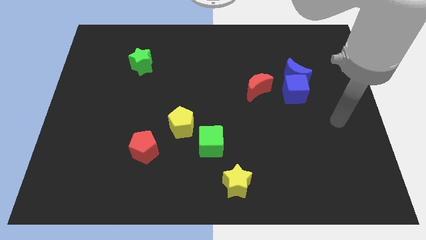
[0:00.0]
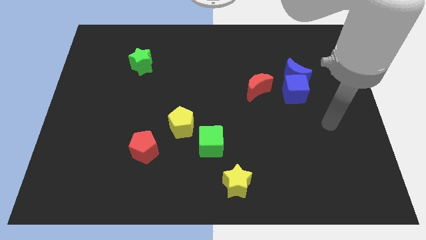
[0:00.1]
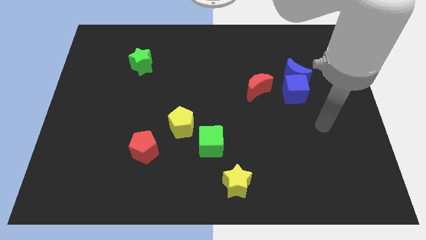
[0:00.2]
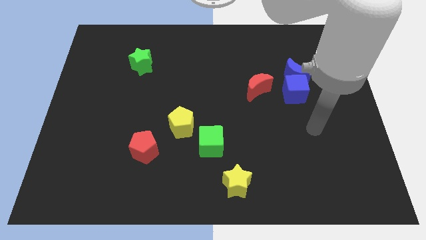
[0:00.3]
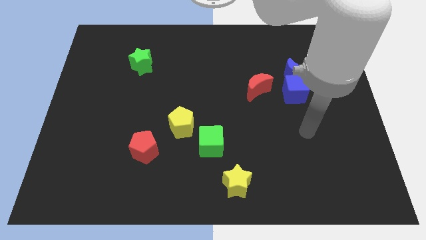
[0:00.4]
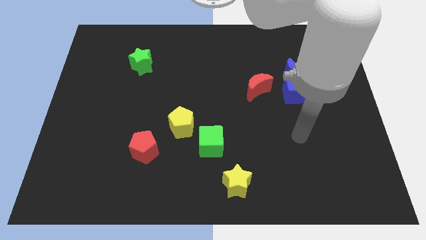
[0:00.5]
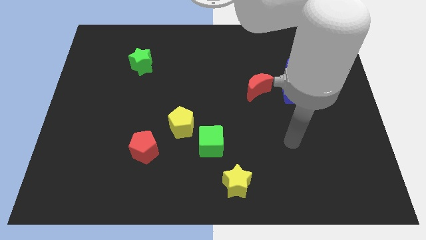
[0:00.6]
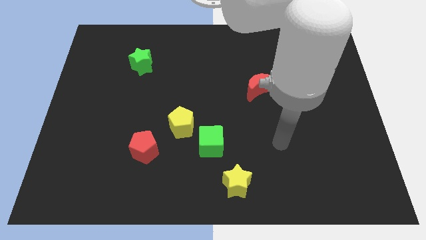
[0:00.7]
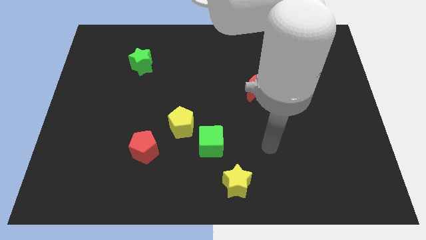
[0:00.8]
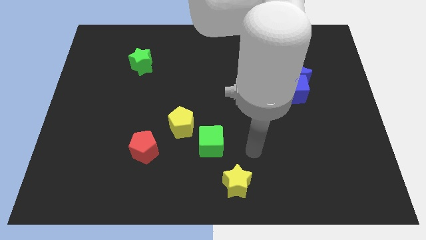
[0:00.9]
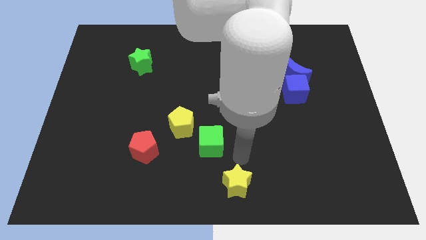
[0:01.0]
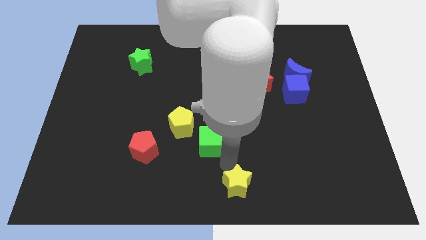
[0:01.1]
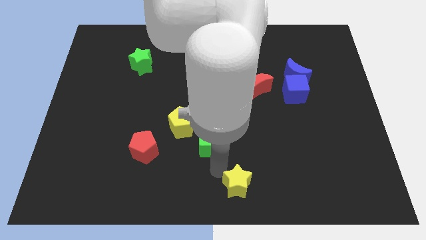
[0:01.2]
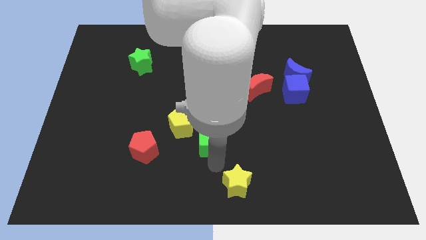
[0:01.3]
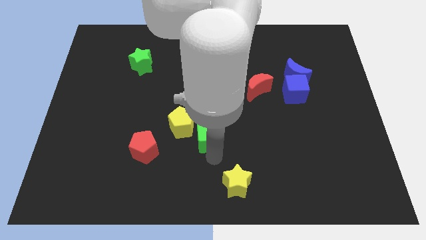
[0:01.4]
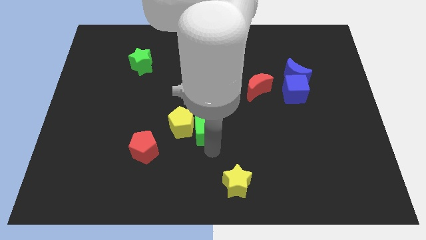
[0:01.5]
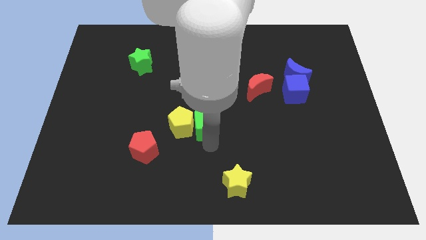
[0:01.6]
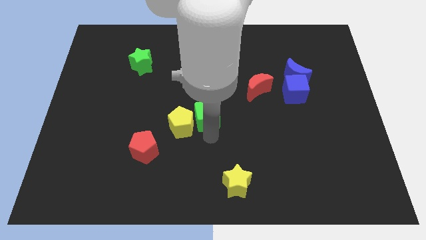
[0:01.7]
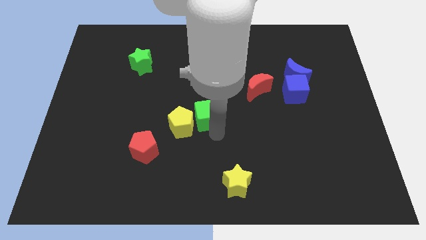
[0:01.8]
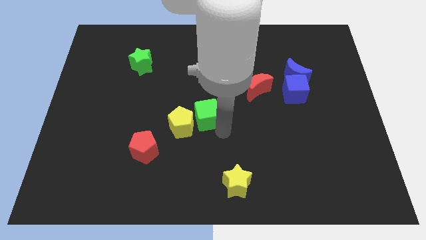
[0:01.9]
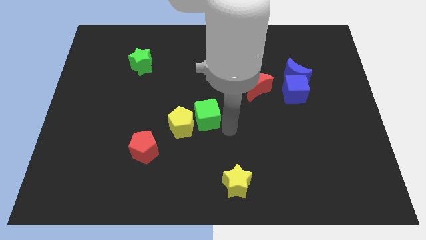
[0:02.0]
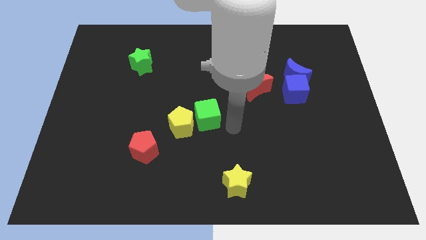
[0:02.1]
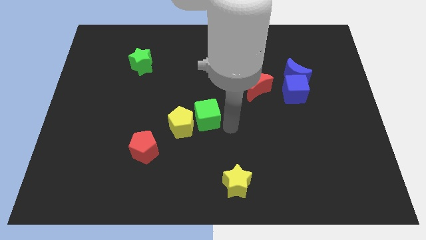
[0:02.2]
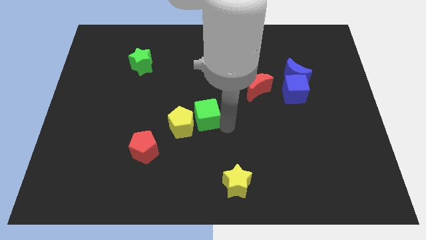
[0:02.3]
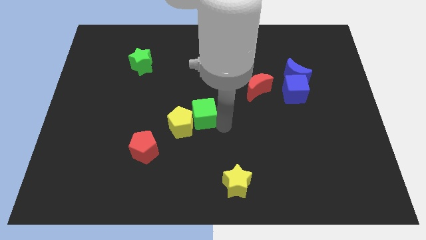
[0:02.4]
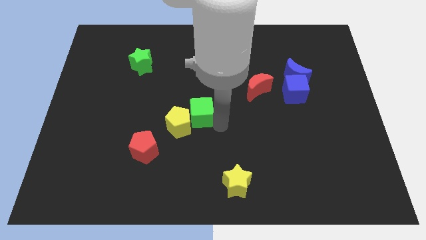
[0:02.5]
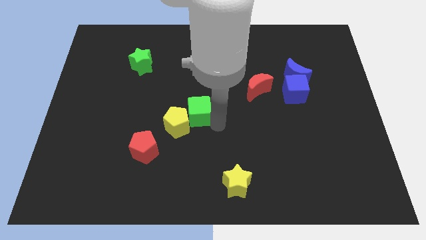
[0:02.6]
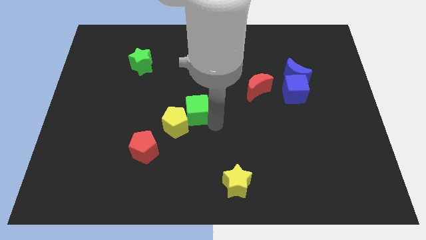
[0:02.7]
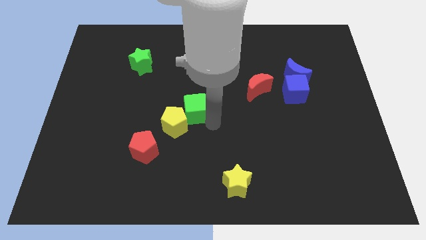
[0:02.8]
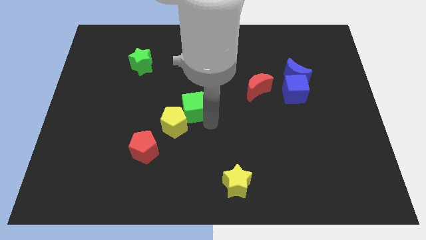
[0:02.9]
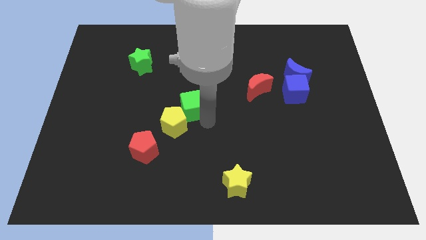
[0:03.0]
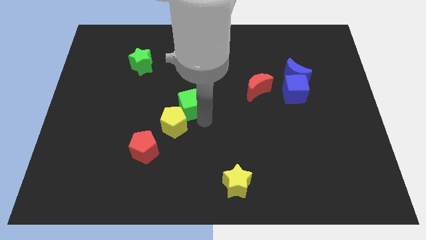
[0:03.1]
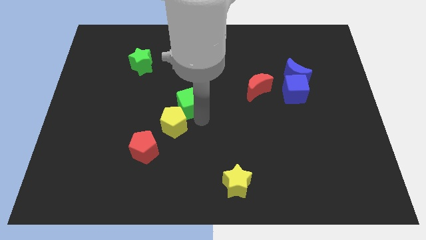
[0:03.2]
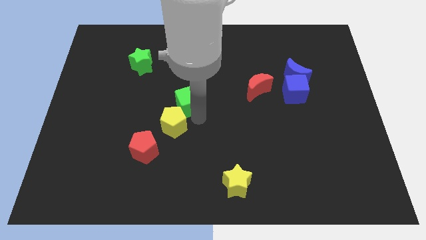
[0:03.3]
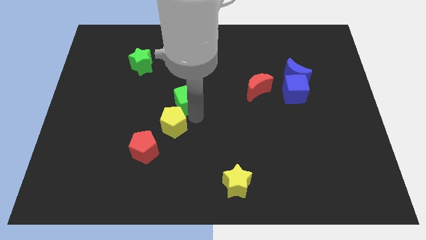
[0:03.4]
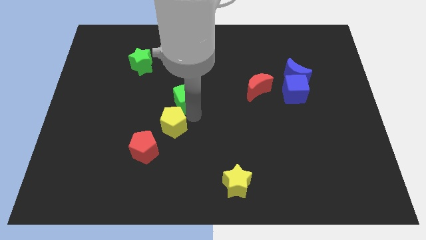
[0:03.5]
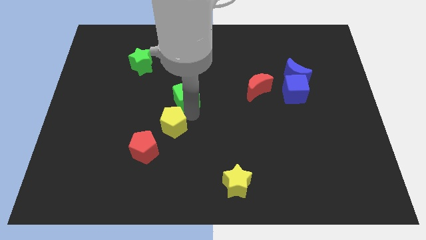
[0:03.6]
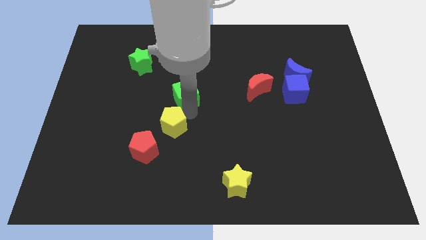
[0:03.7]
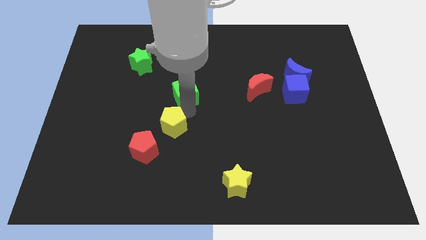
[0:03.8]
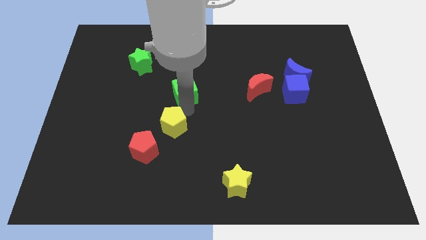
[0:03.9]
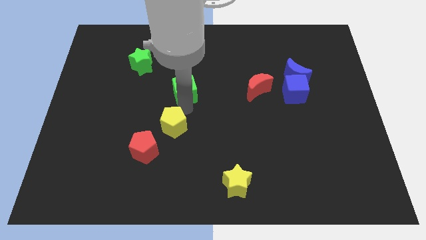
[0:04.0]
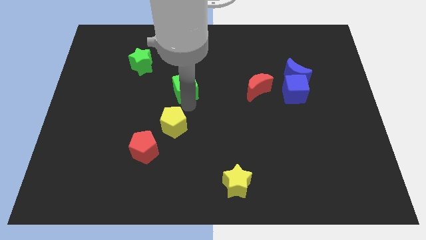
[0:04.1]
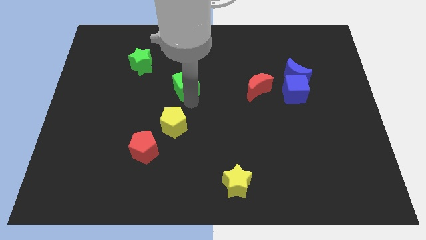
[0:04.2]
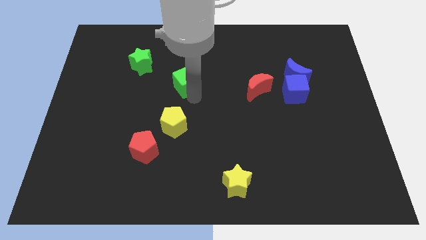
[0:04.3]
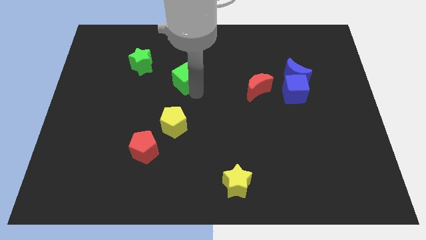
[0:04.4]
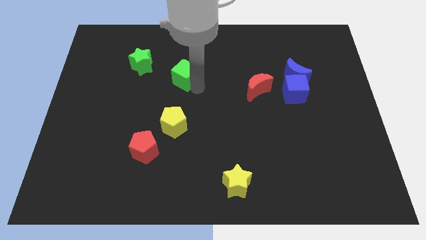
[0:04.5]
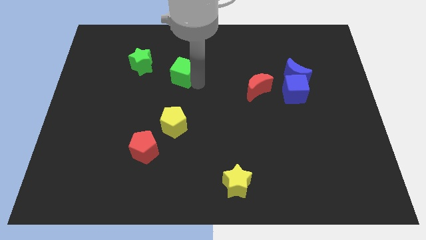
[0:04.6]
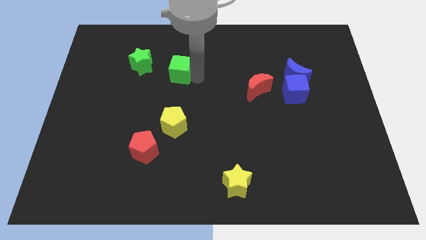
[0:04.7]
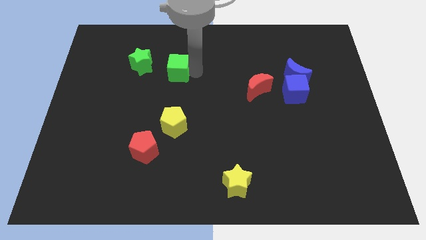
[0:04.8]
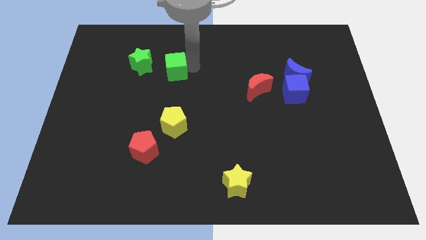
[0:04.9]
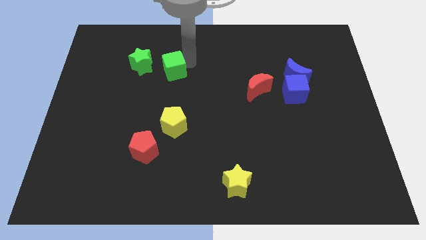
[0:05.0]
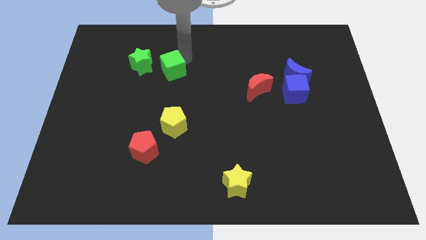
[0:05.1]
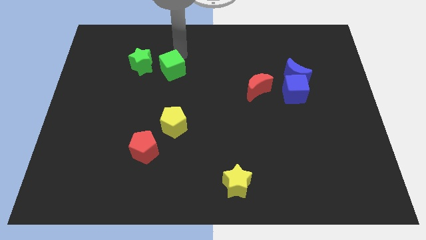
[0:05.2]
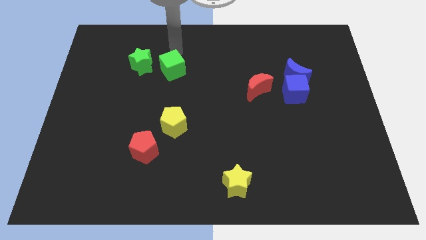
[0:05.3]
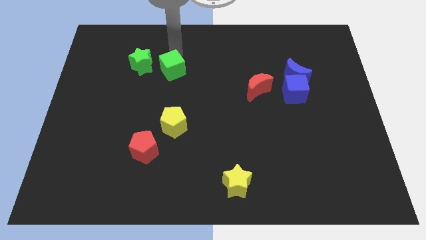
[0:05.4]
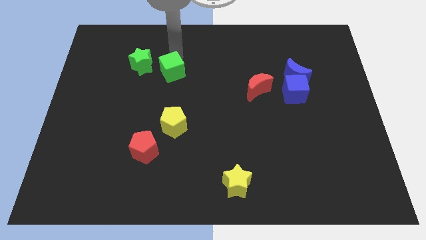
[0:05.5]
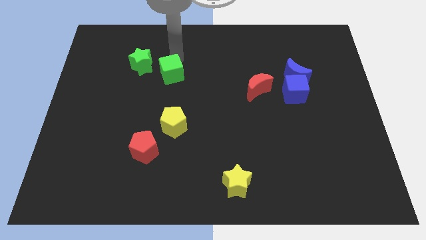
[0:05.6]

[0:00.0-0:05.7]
move the green cube up and left diagonally

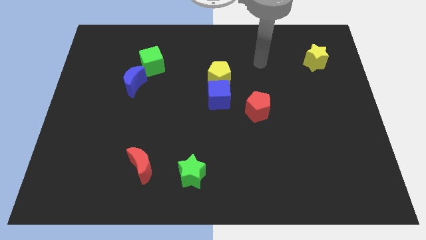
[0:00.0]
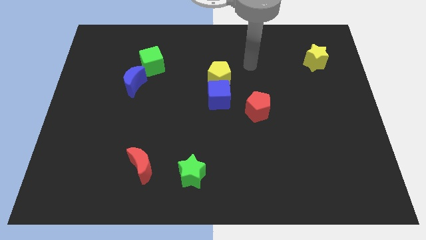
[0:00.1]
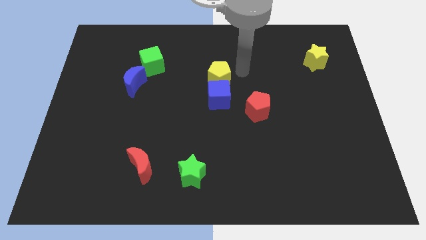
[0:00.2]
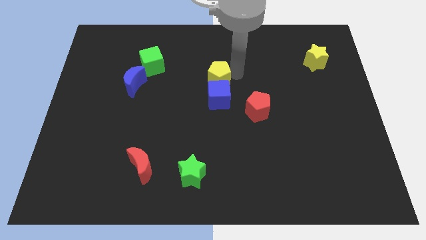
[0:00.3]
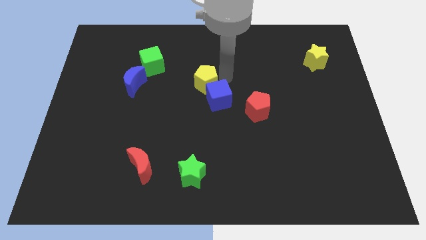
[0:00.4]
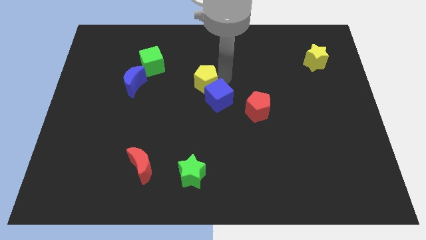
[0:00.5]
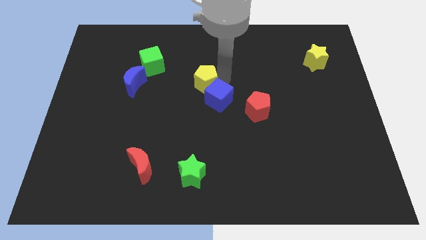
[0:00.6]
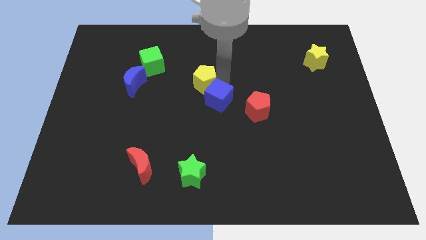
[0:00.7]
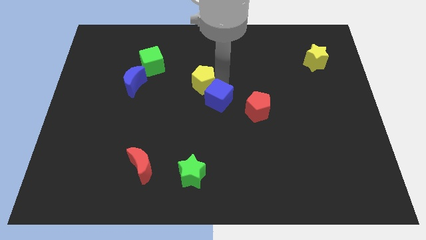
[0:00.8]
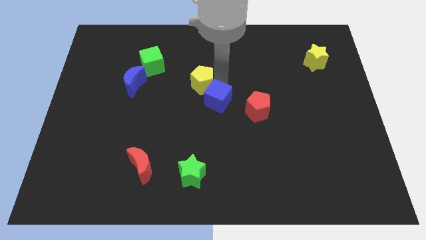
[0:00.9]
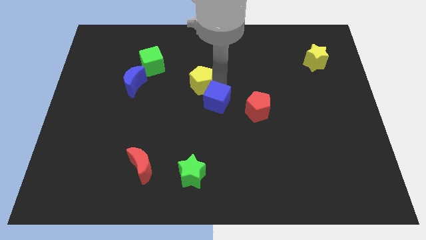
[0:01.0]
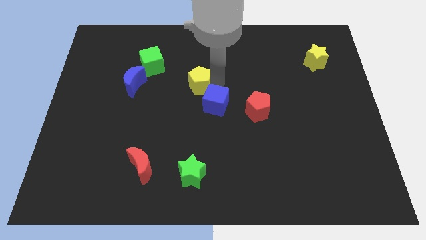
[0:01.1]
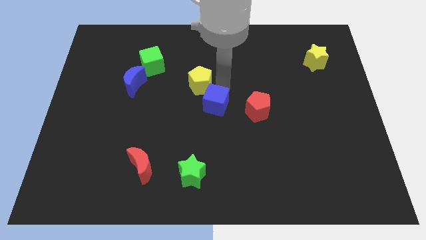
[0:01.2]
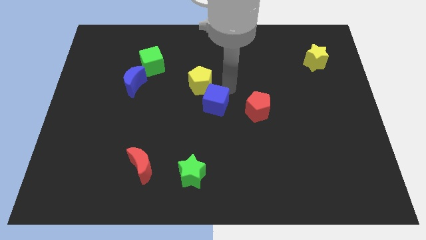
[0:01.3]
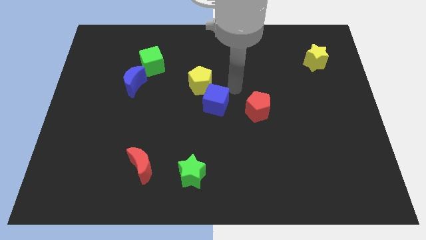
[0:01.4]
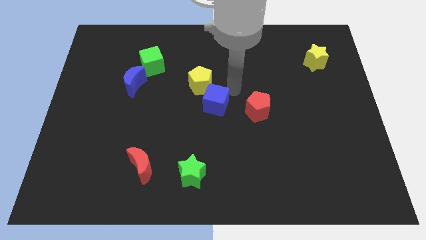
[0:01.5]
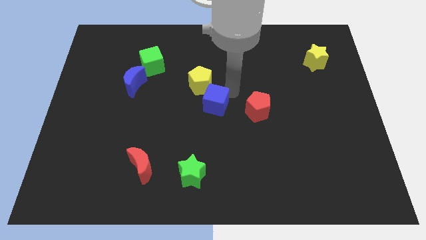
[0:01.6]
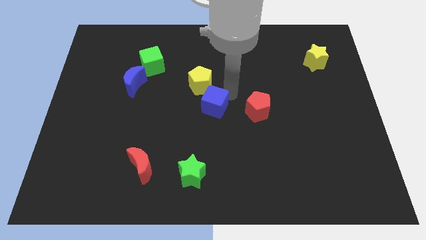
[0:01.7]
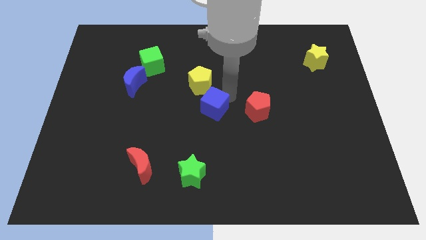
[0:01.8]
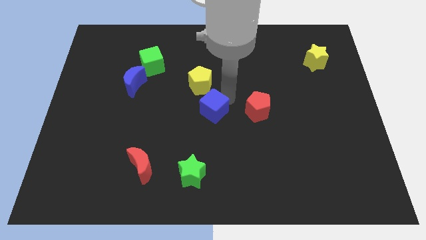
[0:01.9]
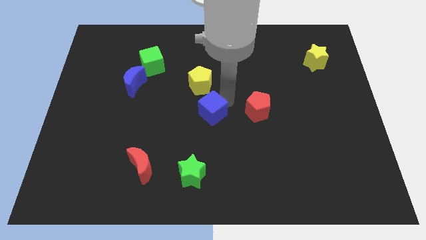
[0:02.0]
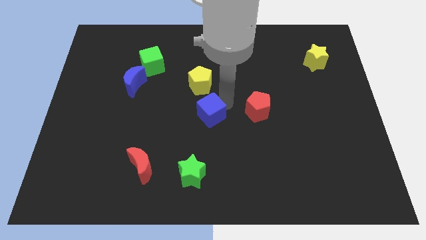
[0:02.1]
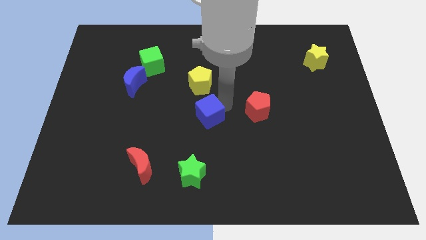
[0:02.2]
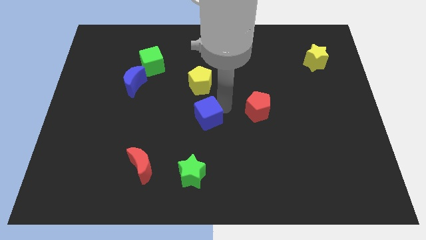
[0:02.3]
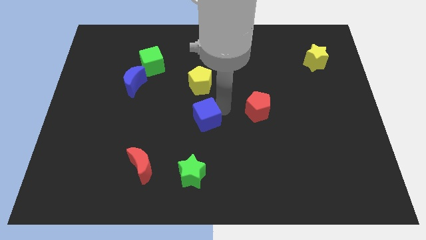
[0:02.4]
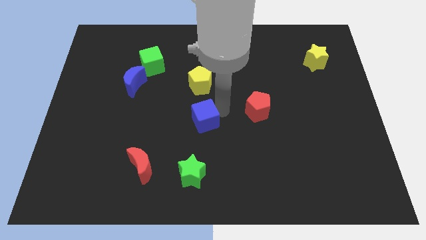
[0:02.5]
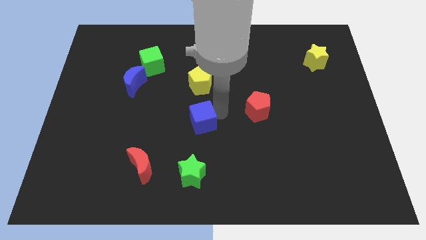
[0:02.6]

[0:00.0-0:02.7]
slide the blue cube down and then to the left slightly
